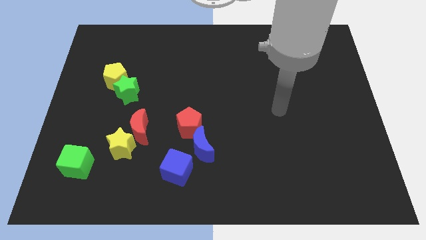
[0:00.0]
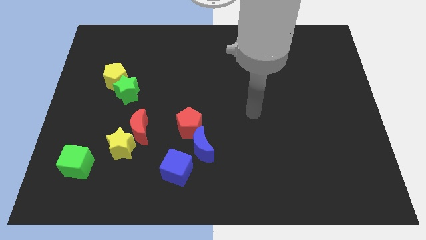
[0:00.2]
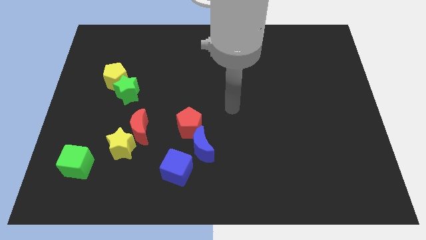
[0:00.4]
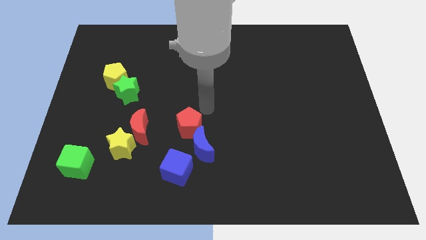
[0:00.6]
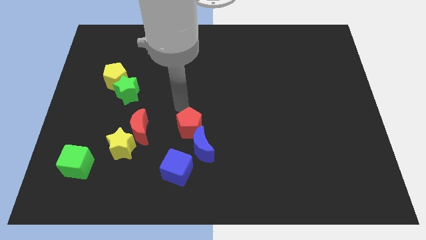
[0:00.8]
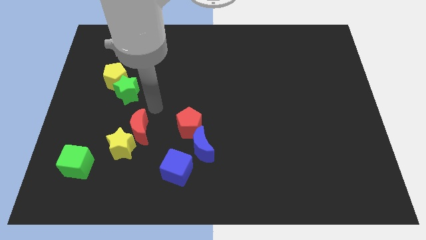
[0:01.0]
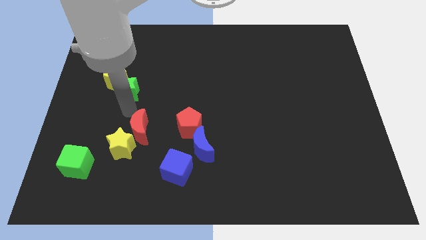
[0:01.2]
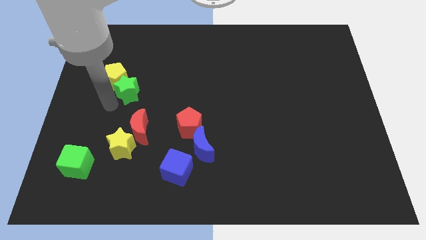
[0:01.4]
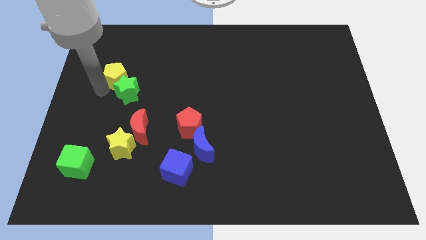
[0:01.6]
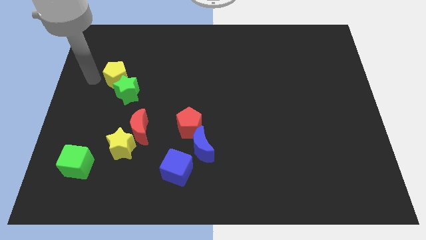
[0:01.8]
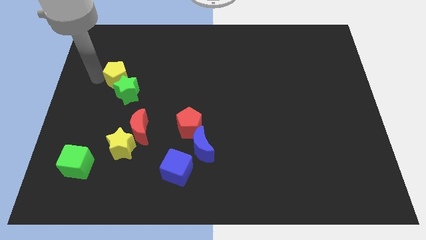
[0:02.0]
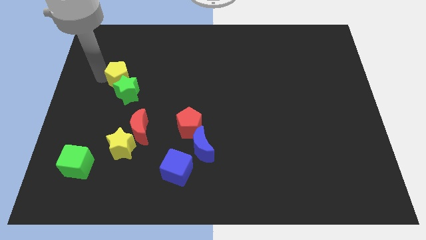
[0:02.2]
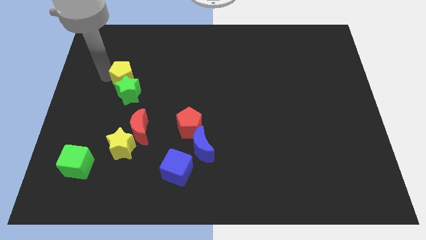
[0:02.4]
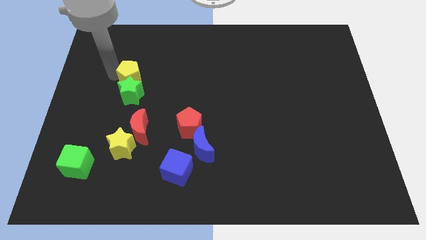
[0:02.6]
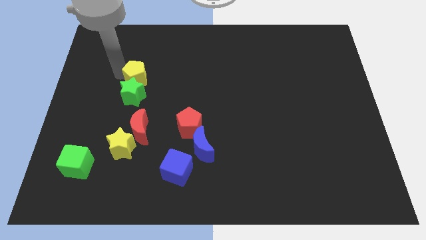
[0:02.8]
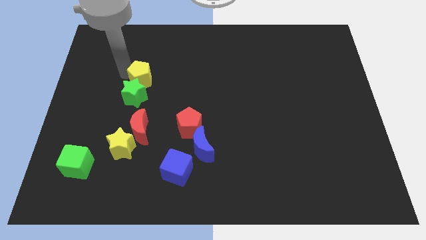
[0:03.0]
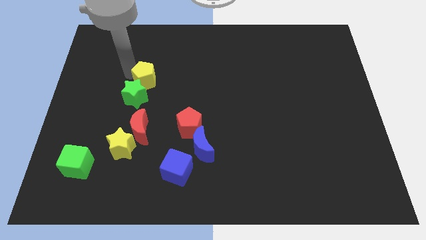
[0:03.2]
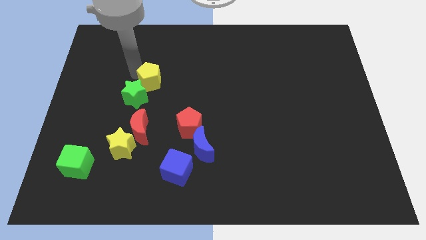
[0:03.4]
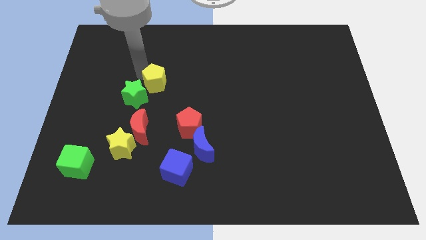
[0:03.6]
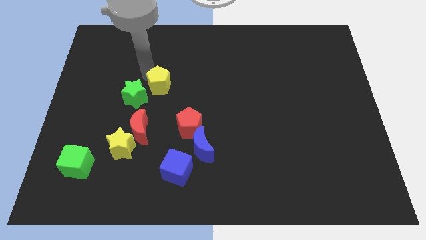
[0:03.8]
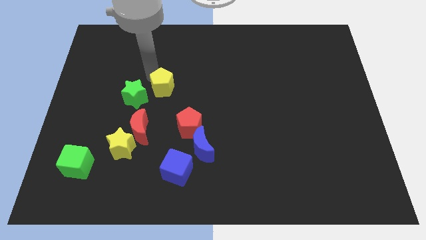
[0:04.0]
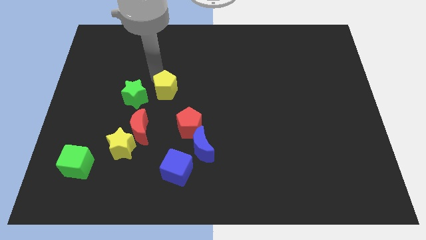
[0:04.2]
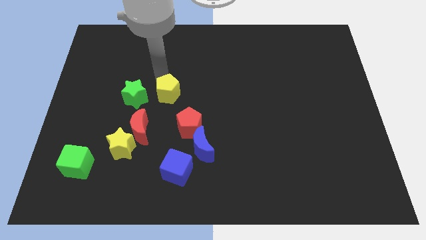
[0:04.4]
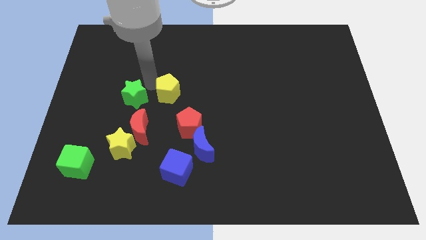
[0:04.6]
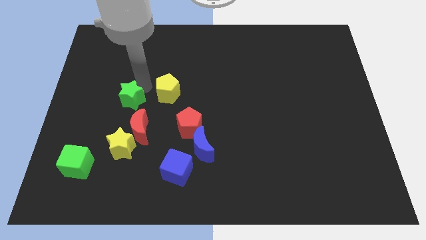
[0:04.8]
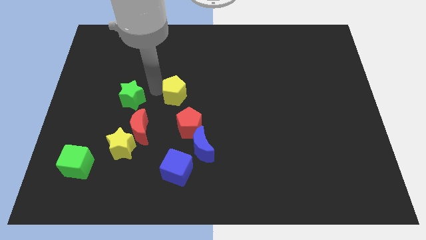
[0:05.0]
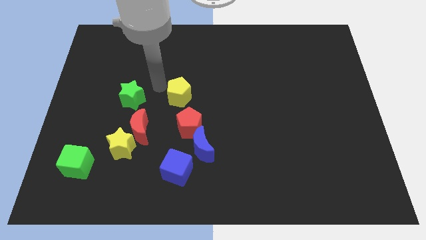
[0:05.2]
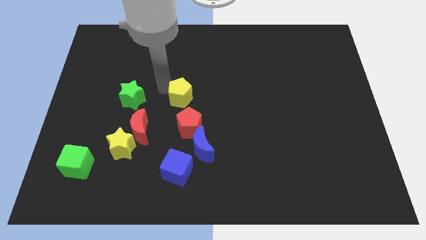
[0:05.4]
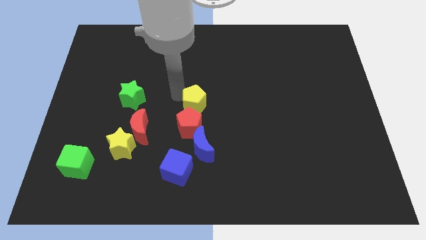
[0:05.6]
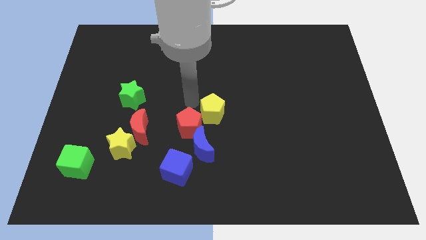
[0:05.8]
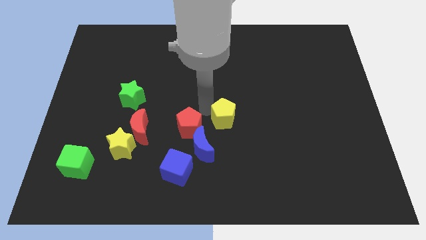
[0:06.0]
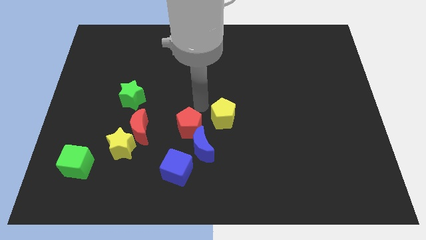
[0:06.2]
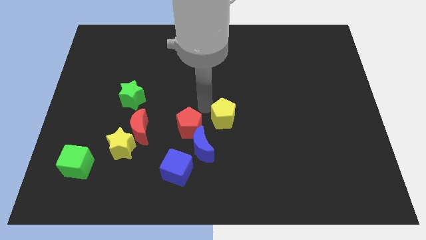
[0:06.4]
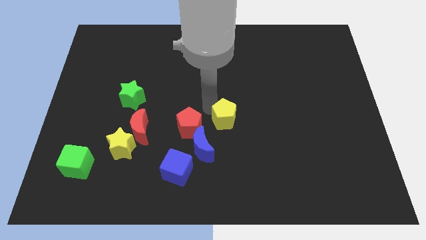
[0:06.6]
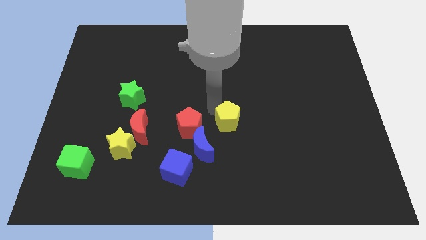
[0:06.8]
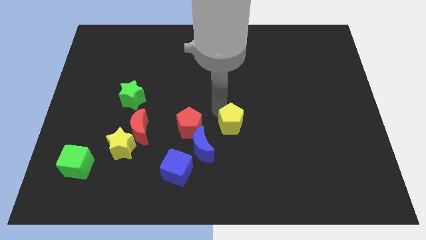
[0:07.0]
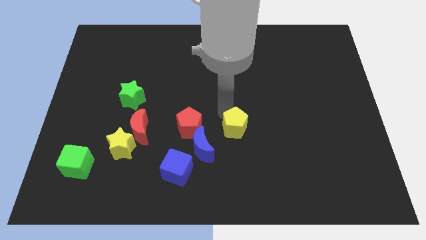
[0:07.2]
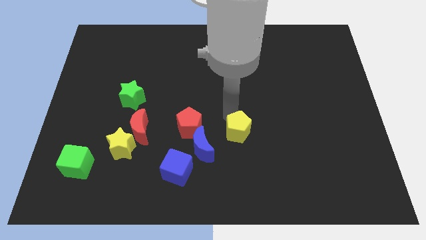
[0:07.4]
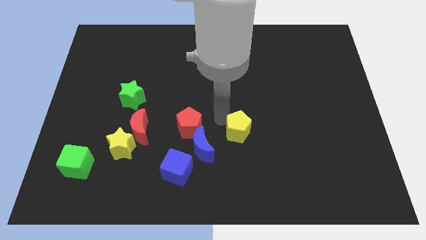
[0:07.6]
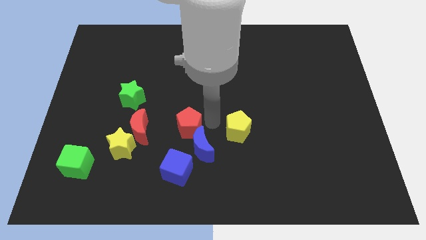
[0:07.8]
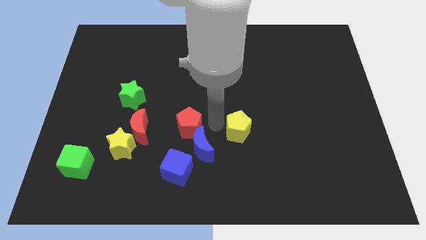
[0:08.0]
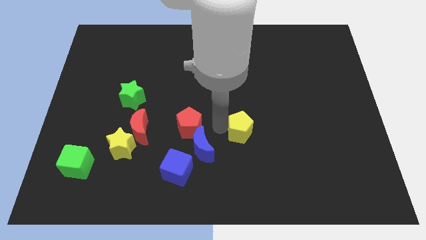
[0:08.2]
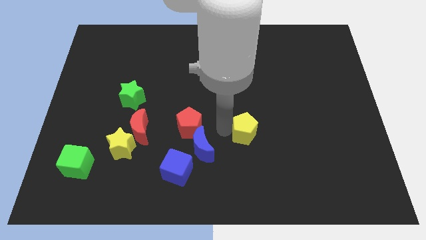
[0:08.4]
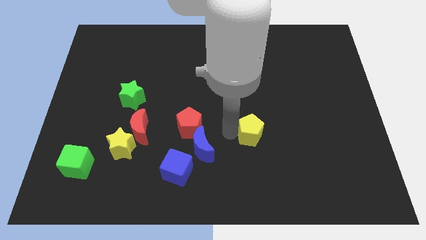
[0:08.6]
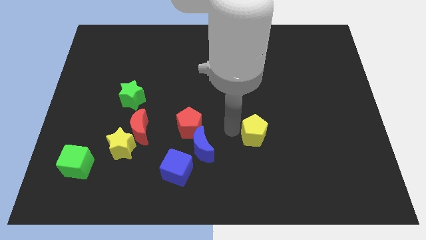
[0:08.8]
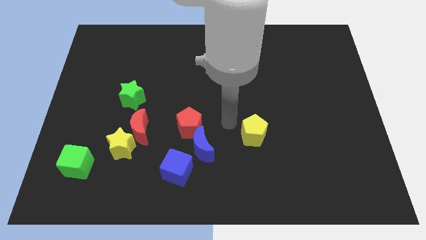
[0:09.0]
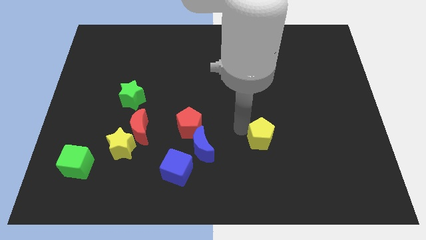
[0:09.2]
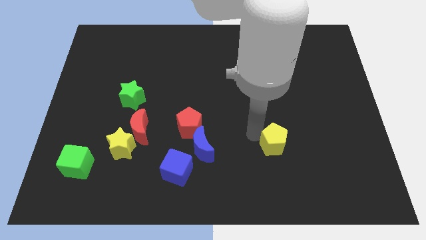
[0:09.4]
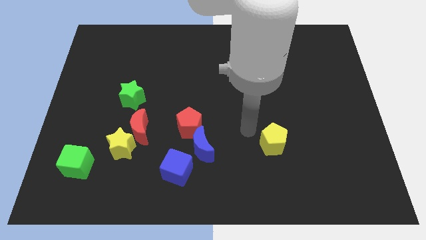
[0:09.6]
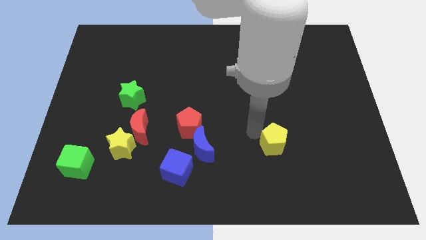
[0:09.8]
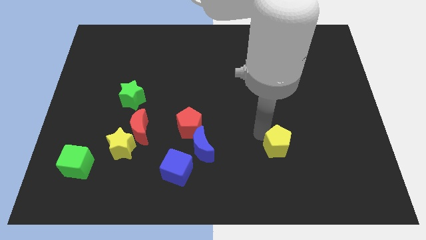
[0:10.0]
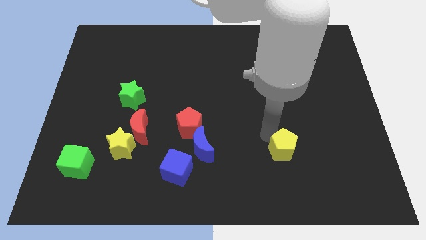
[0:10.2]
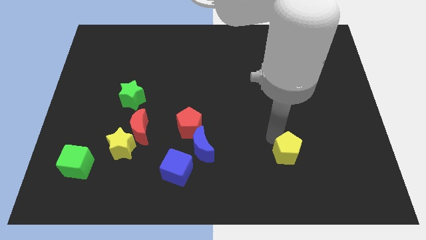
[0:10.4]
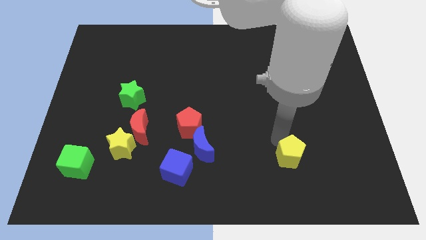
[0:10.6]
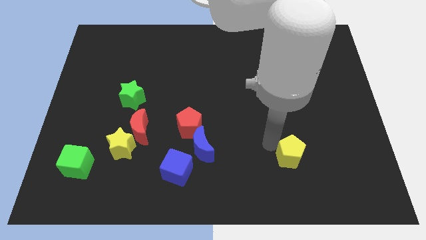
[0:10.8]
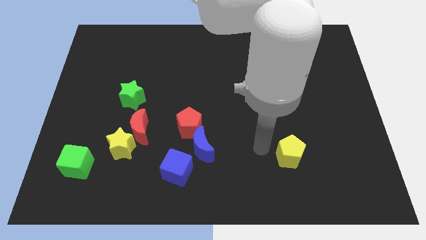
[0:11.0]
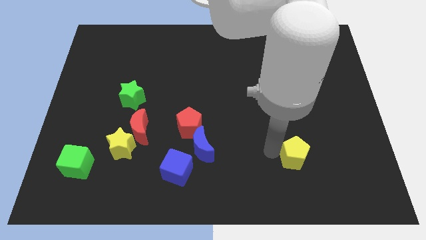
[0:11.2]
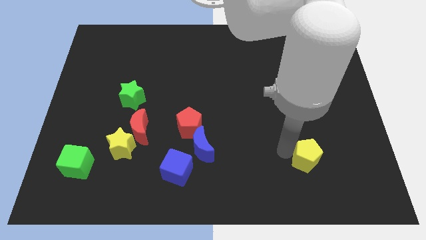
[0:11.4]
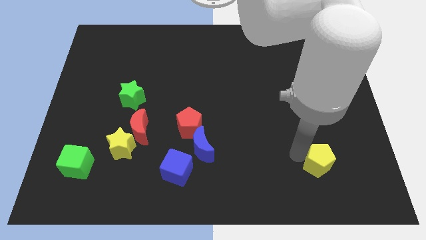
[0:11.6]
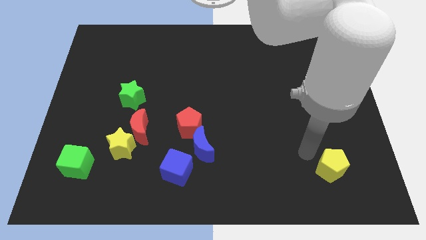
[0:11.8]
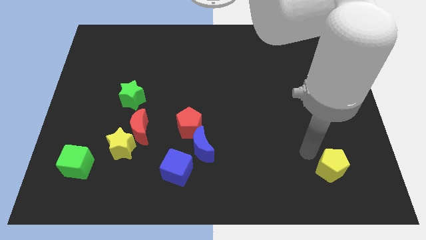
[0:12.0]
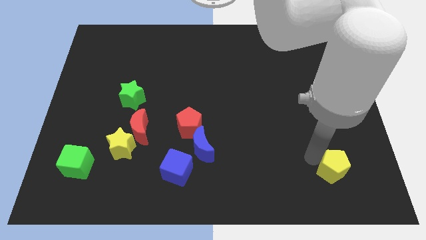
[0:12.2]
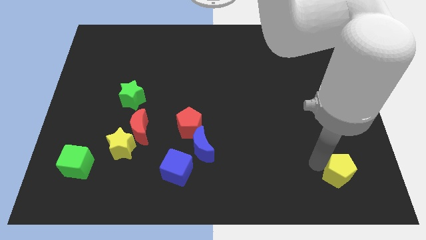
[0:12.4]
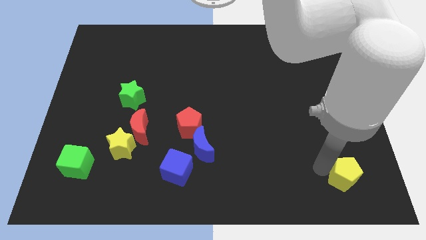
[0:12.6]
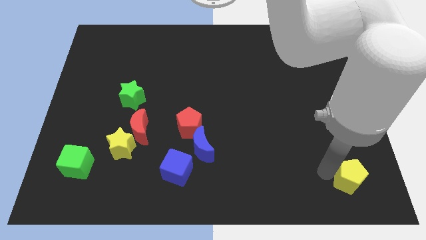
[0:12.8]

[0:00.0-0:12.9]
put the yellow pentagon to the bottom right
